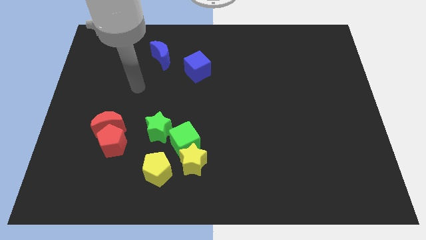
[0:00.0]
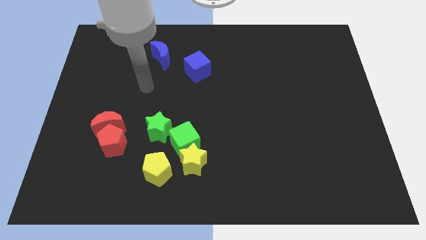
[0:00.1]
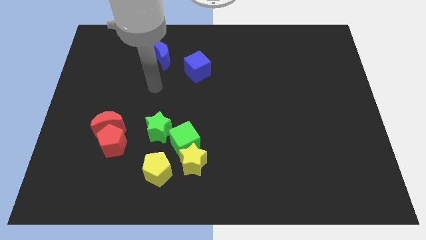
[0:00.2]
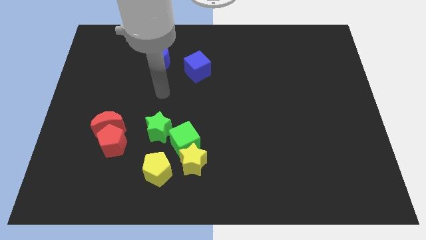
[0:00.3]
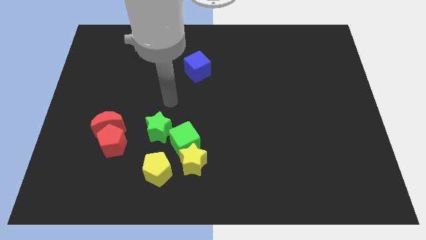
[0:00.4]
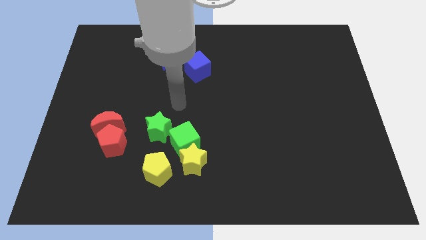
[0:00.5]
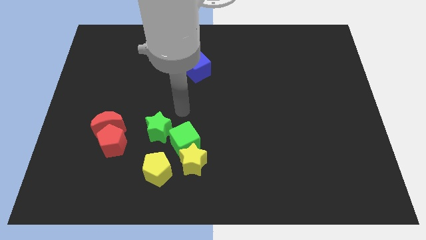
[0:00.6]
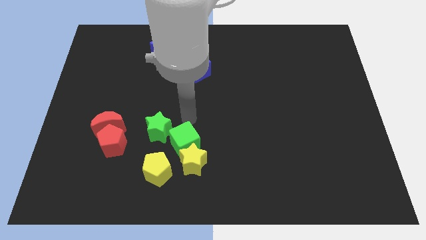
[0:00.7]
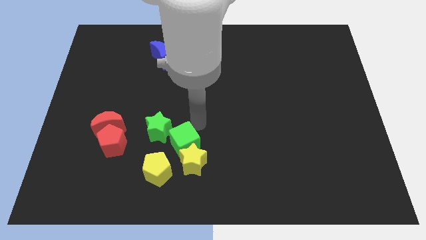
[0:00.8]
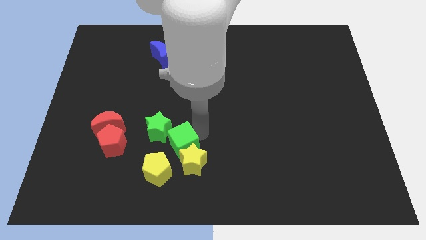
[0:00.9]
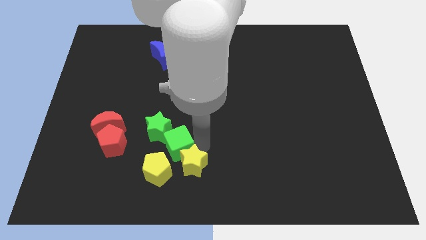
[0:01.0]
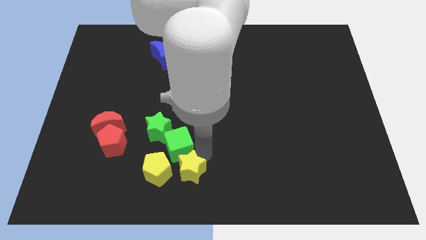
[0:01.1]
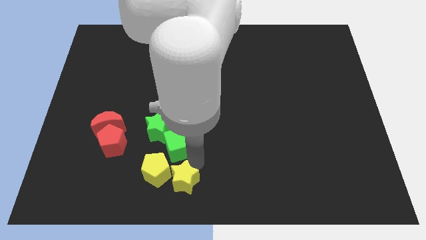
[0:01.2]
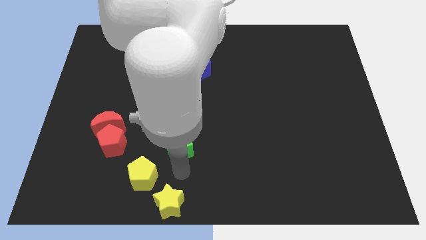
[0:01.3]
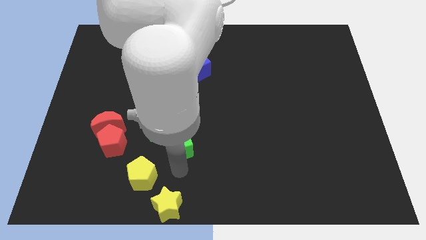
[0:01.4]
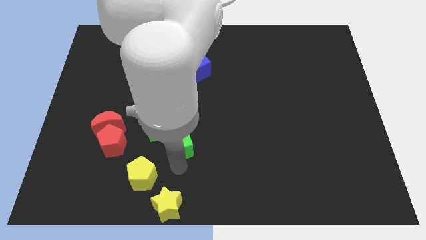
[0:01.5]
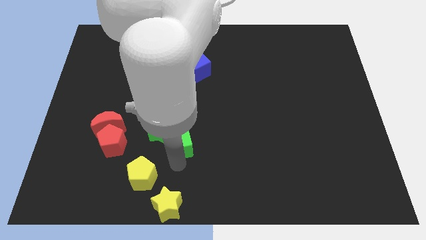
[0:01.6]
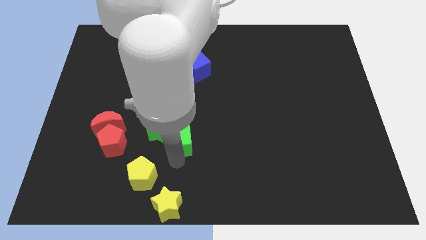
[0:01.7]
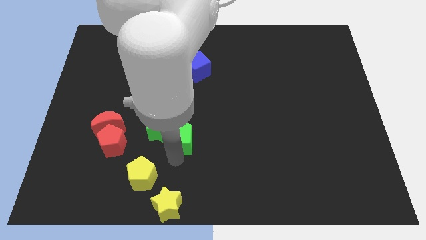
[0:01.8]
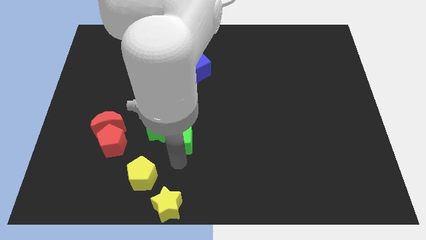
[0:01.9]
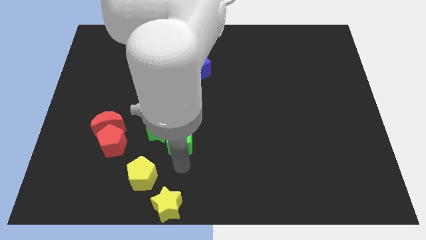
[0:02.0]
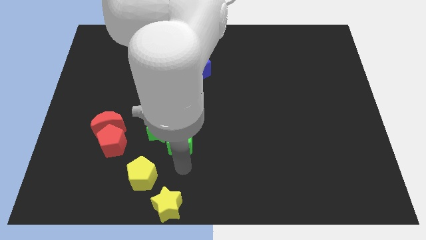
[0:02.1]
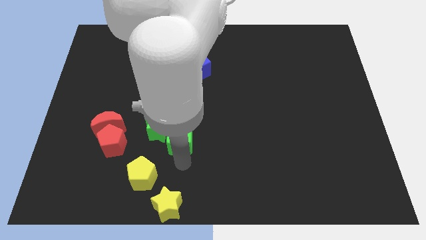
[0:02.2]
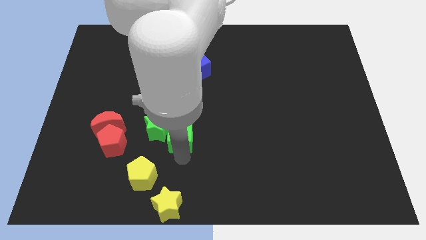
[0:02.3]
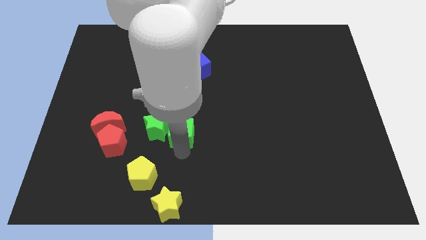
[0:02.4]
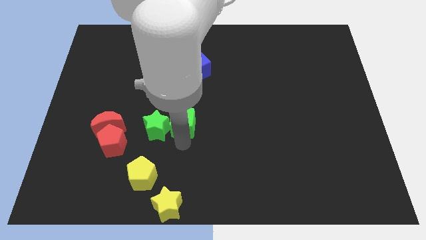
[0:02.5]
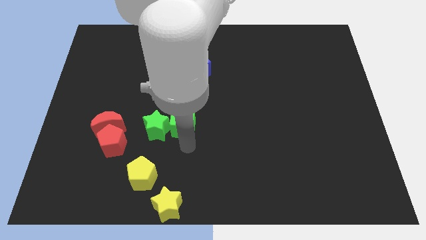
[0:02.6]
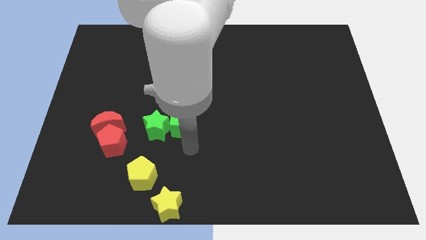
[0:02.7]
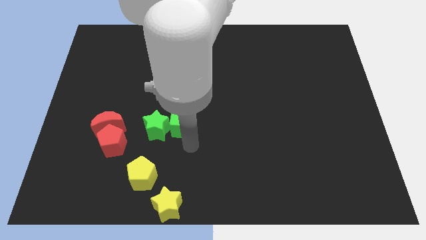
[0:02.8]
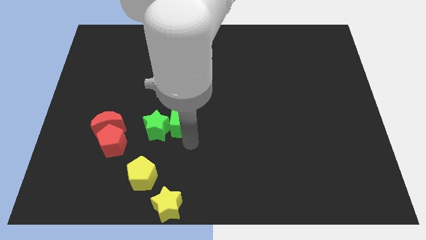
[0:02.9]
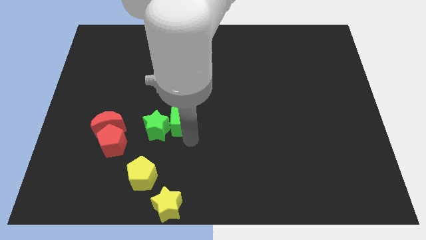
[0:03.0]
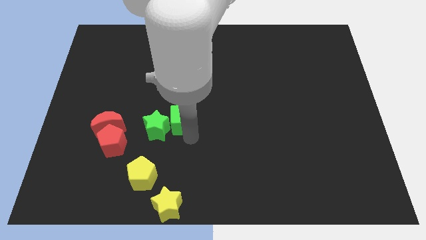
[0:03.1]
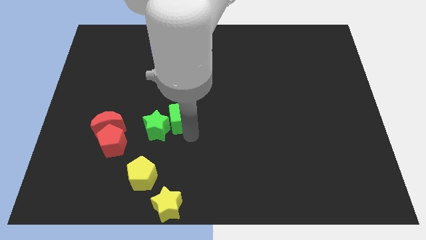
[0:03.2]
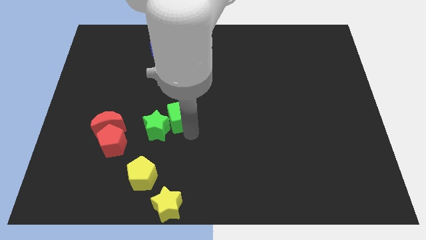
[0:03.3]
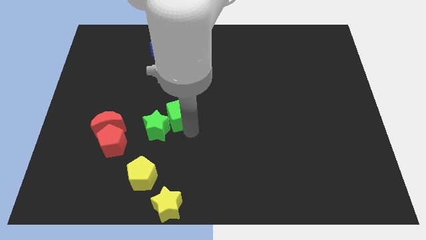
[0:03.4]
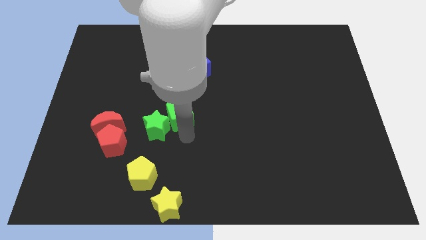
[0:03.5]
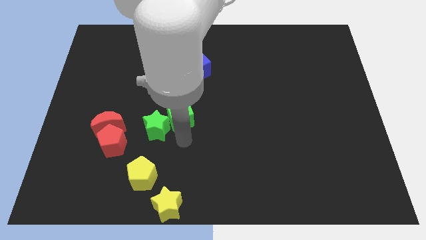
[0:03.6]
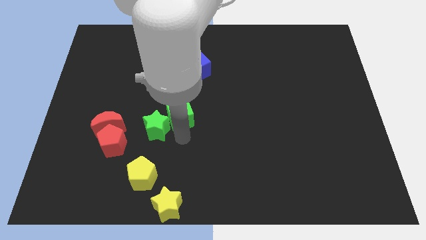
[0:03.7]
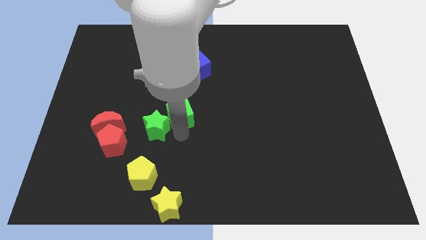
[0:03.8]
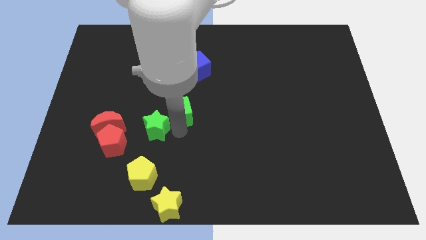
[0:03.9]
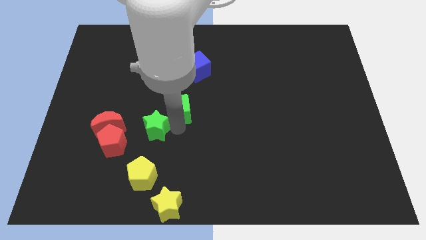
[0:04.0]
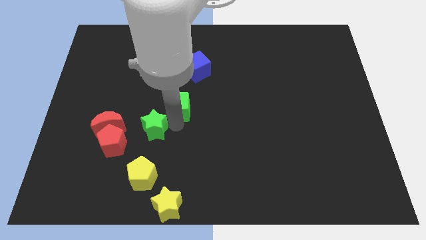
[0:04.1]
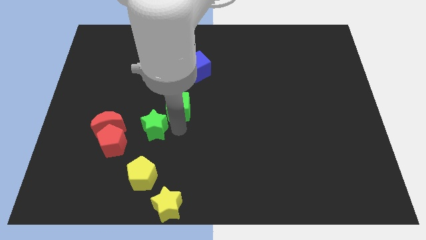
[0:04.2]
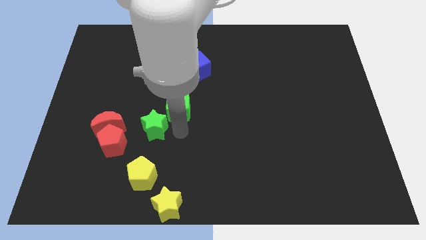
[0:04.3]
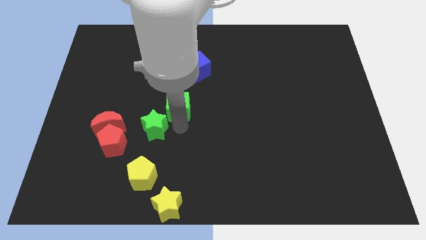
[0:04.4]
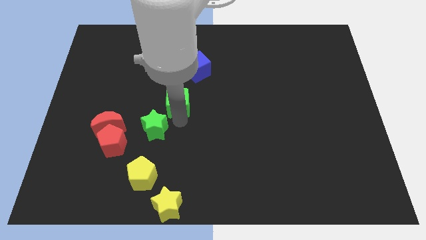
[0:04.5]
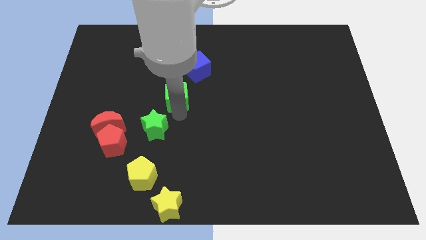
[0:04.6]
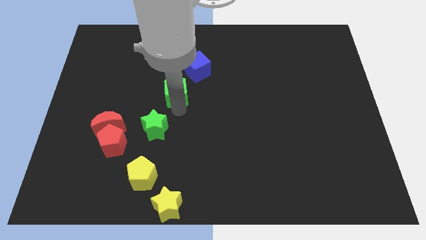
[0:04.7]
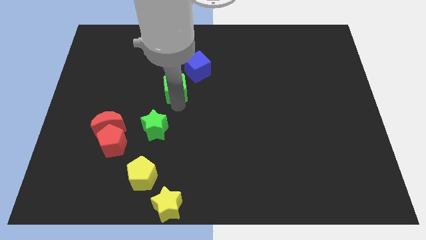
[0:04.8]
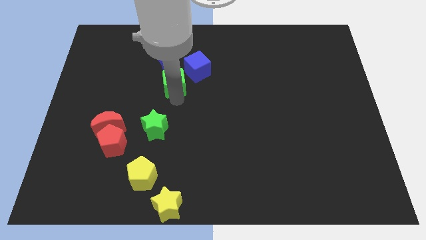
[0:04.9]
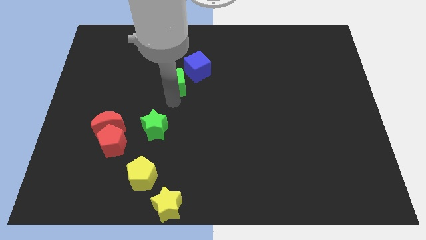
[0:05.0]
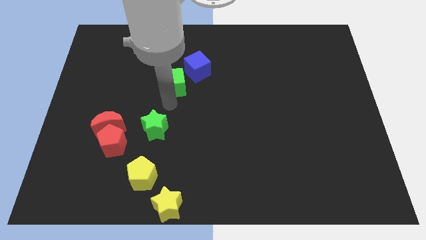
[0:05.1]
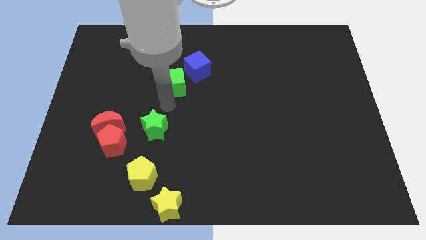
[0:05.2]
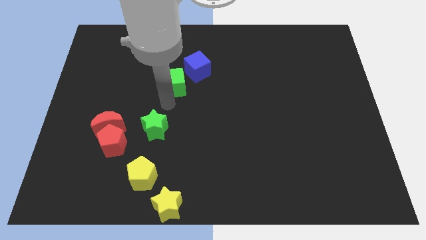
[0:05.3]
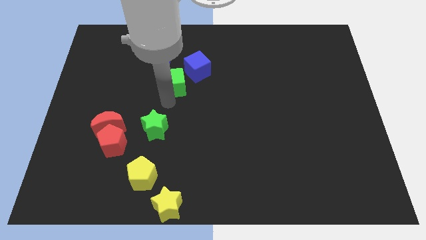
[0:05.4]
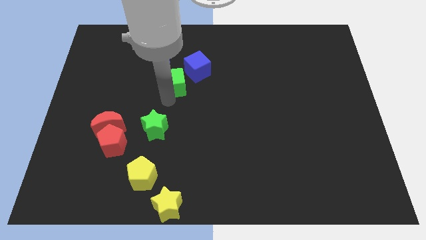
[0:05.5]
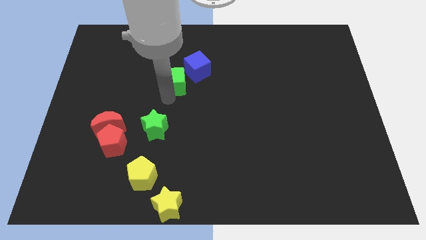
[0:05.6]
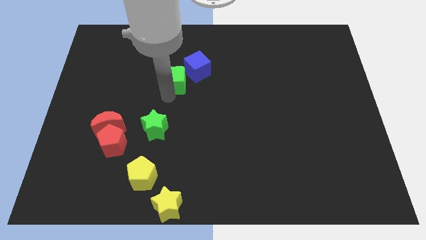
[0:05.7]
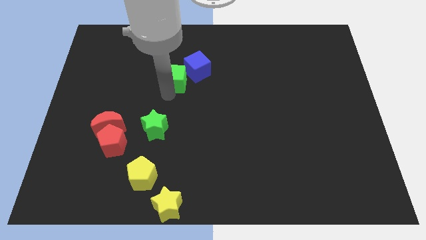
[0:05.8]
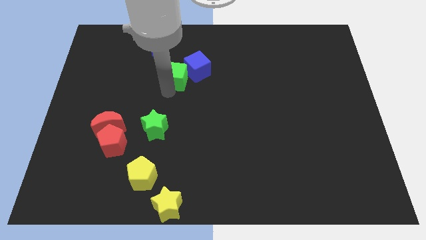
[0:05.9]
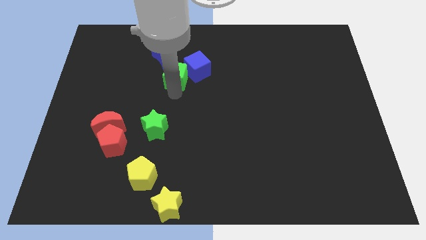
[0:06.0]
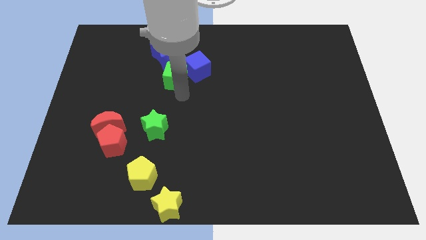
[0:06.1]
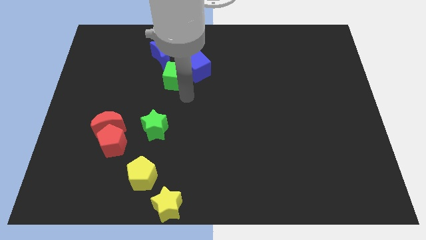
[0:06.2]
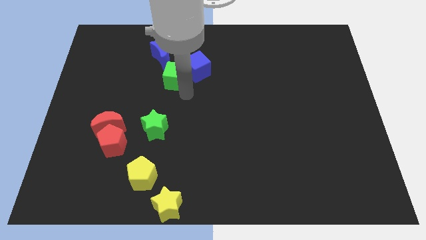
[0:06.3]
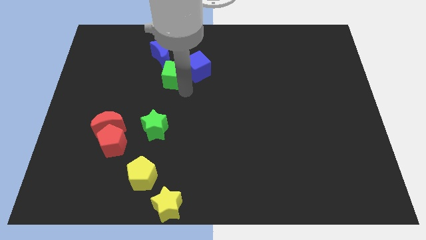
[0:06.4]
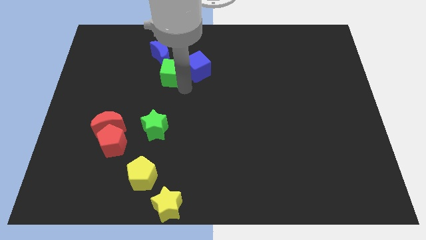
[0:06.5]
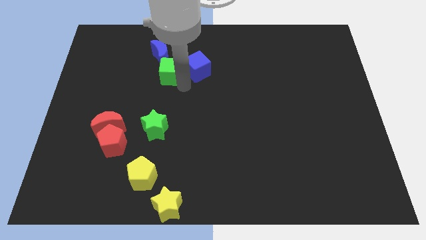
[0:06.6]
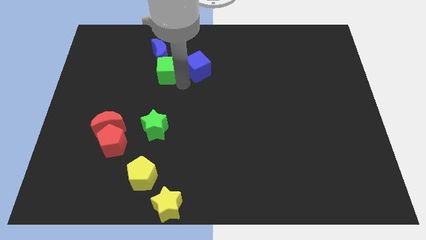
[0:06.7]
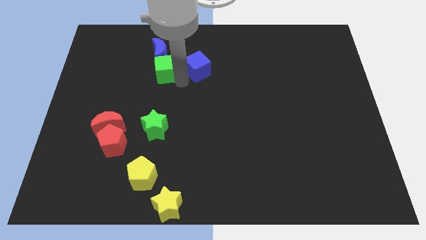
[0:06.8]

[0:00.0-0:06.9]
slide the green cube to the blue moon
